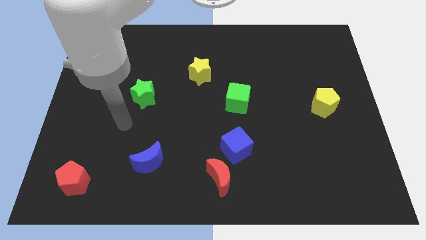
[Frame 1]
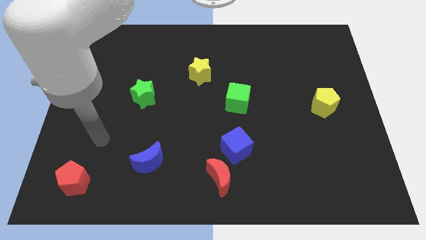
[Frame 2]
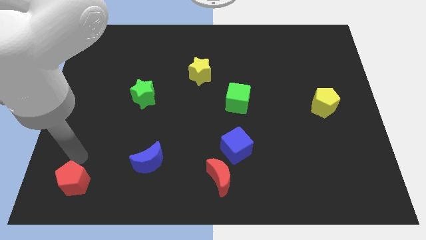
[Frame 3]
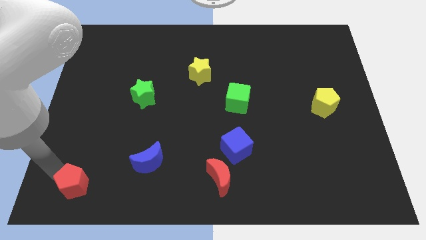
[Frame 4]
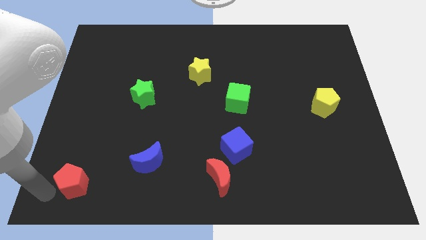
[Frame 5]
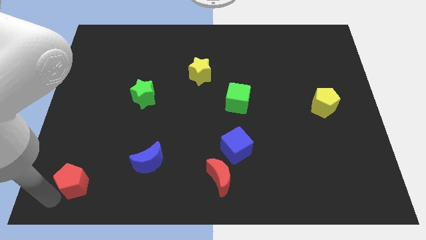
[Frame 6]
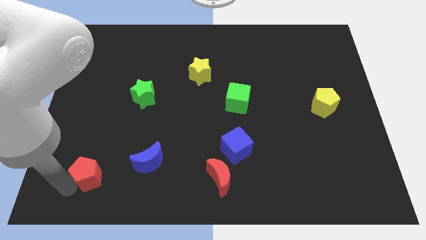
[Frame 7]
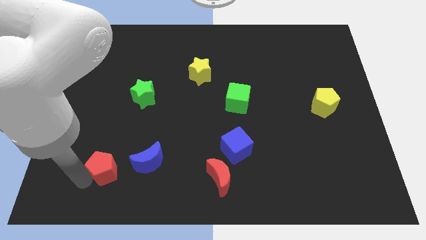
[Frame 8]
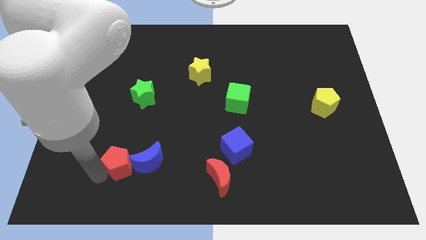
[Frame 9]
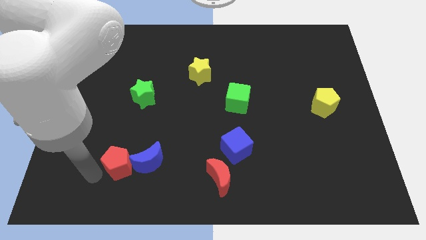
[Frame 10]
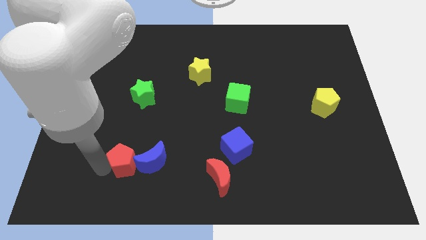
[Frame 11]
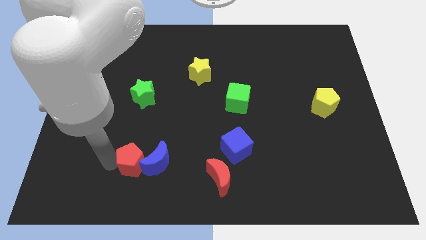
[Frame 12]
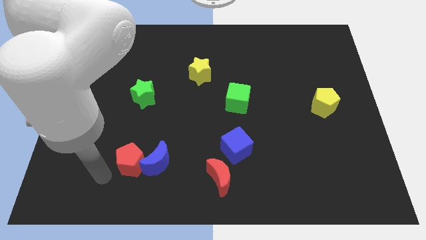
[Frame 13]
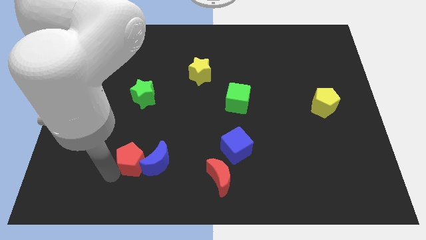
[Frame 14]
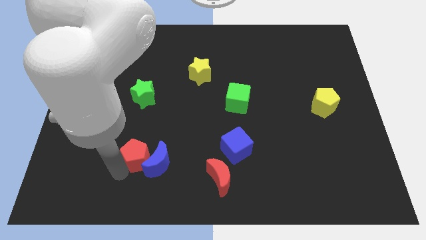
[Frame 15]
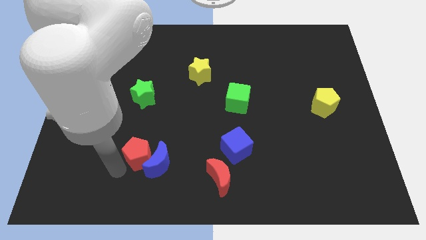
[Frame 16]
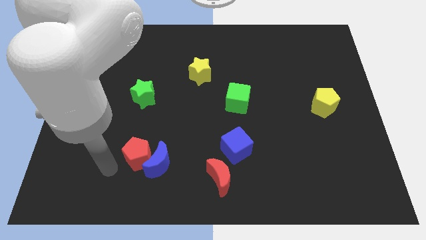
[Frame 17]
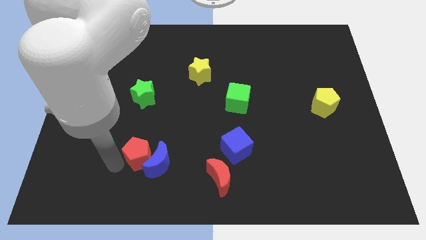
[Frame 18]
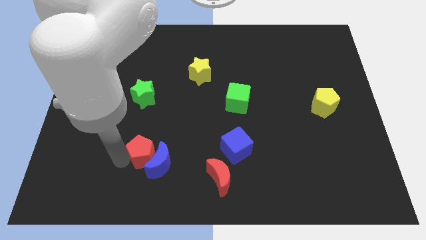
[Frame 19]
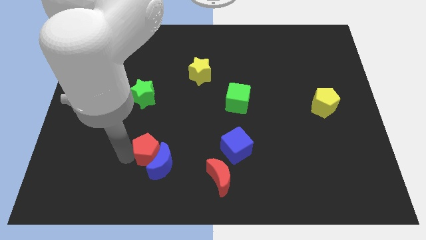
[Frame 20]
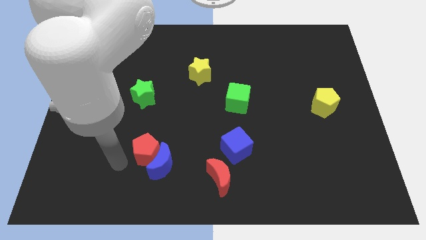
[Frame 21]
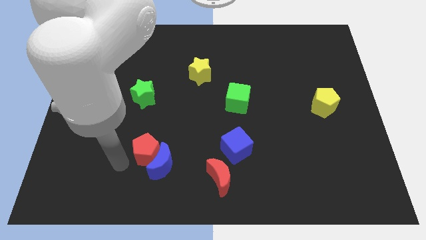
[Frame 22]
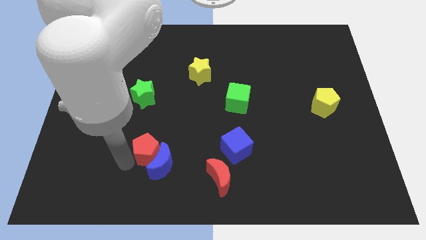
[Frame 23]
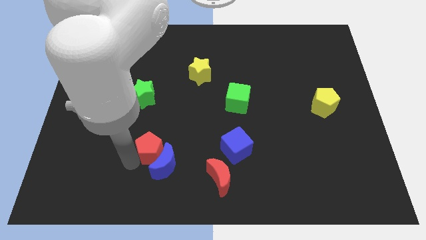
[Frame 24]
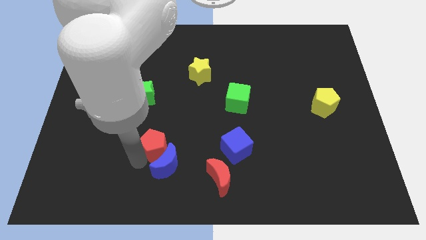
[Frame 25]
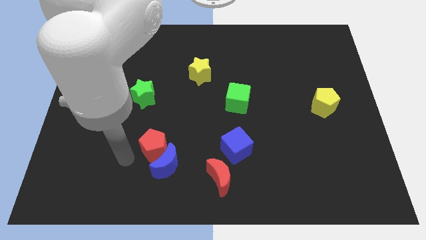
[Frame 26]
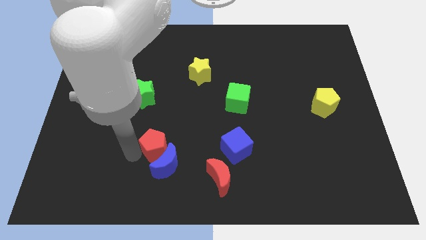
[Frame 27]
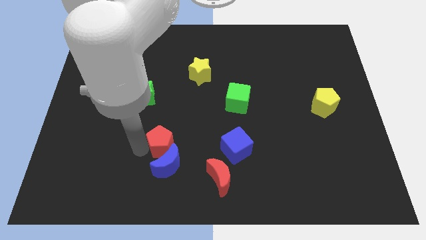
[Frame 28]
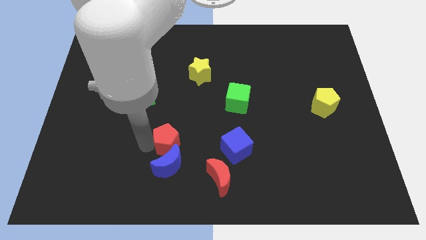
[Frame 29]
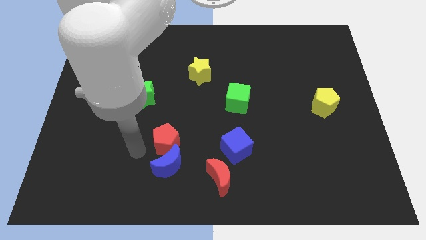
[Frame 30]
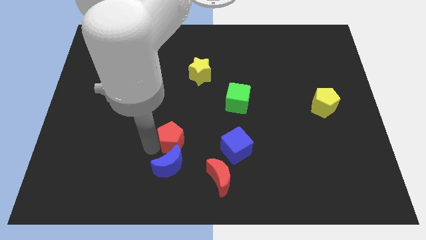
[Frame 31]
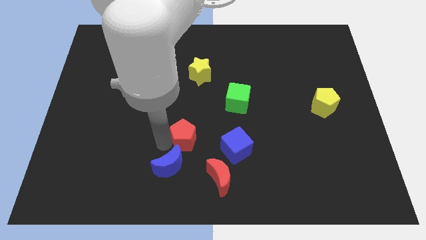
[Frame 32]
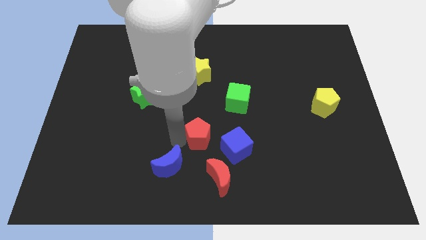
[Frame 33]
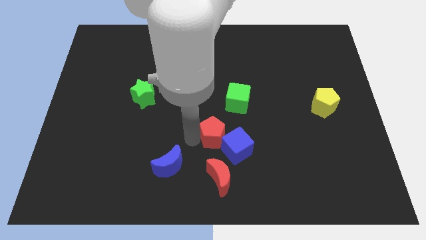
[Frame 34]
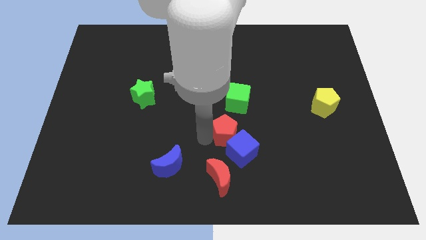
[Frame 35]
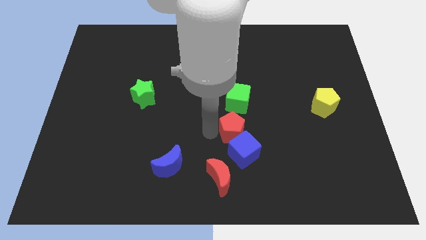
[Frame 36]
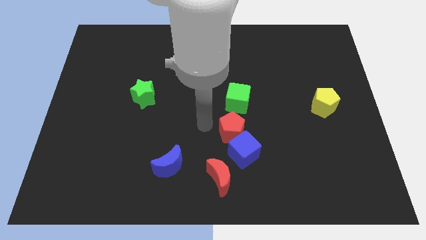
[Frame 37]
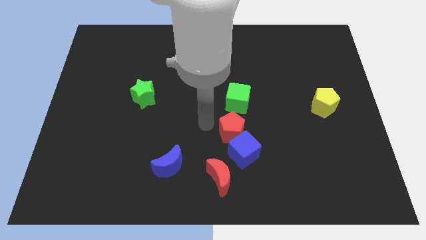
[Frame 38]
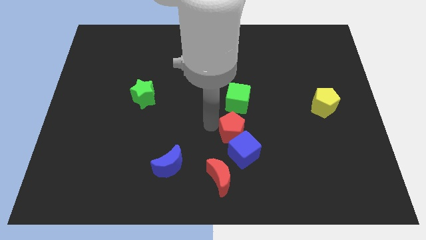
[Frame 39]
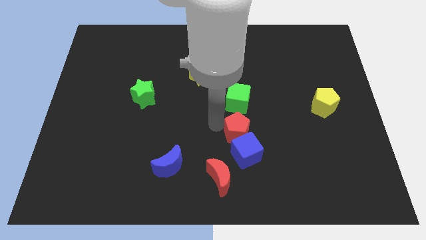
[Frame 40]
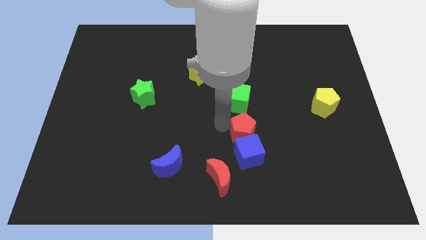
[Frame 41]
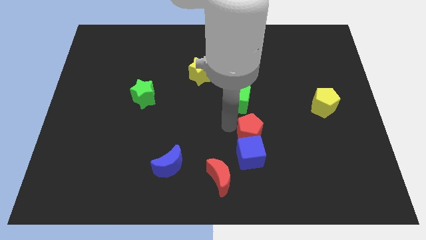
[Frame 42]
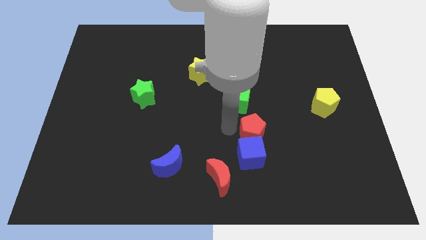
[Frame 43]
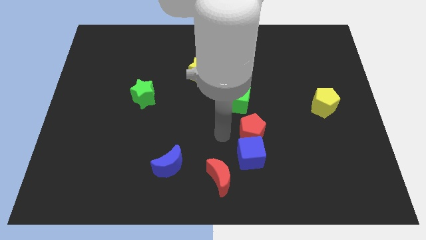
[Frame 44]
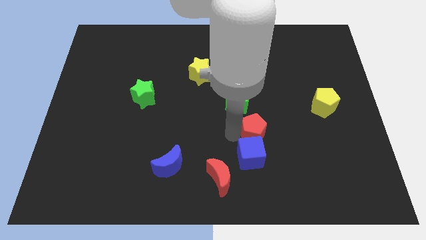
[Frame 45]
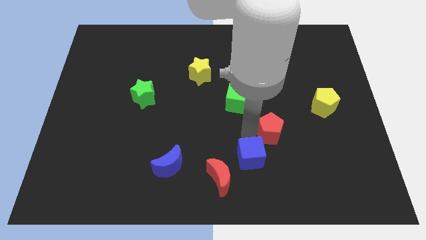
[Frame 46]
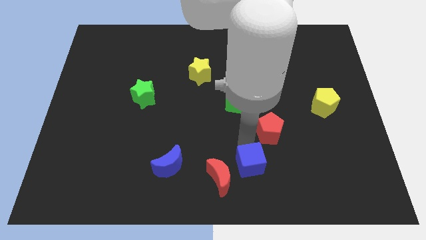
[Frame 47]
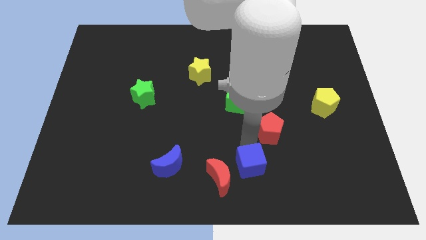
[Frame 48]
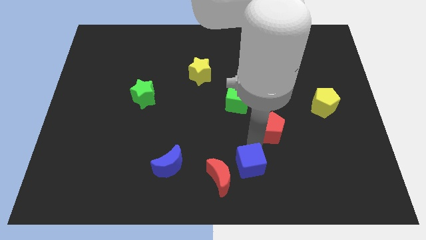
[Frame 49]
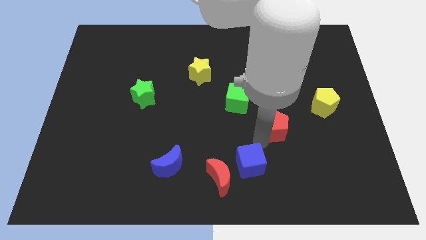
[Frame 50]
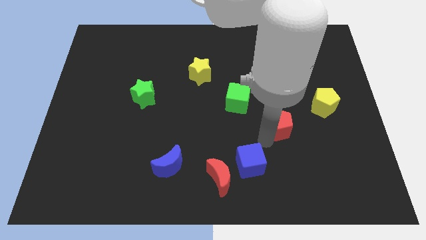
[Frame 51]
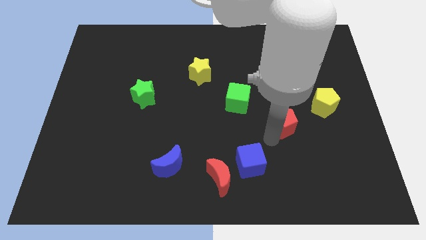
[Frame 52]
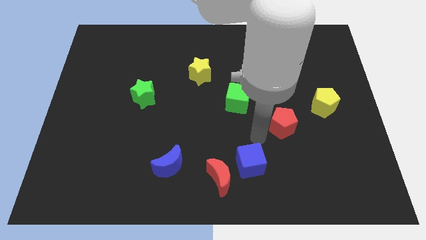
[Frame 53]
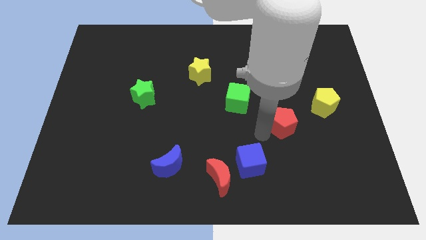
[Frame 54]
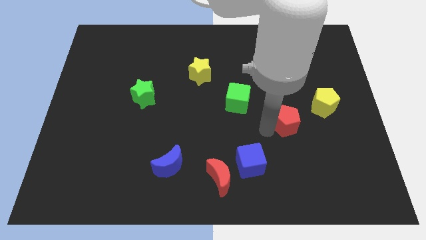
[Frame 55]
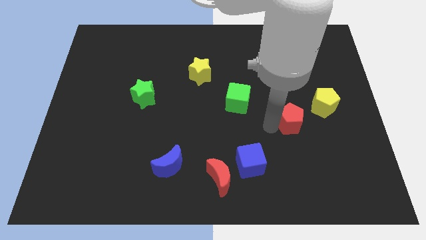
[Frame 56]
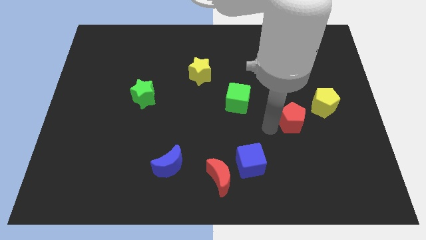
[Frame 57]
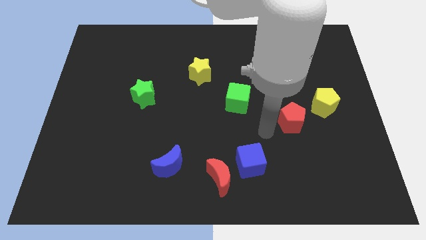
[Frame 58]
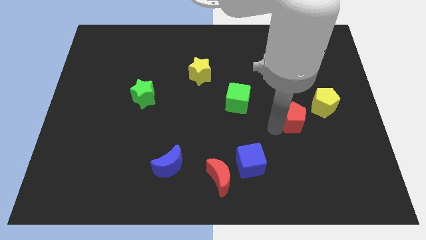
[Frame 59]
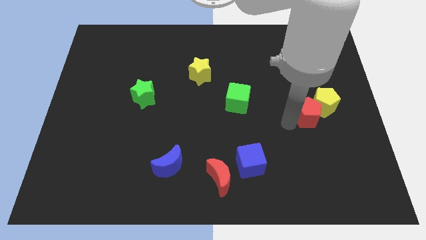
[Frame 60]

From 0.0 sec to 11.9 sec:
push the red pentagon close to the yellow pentagon
